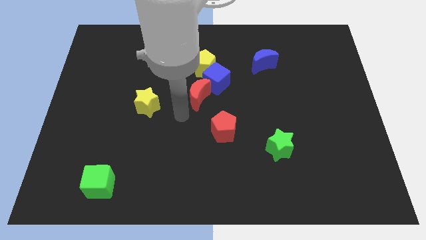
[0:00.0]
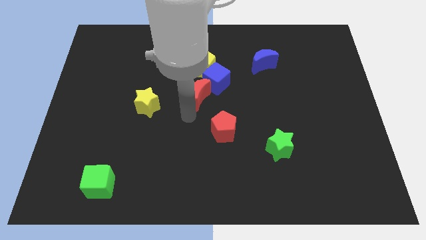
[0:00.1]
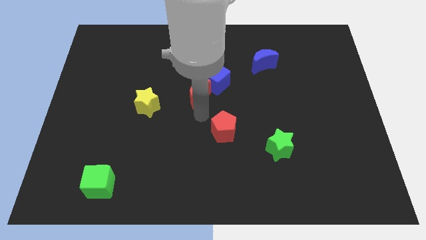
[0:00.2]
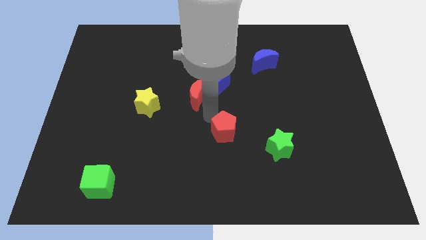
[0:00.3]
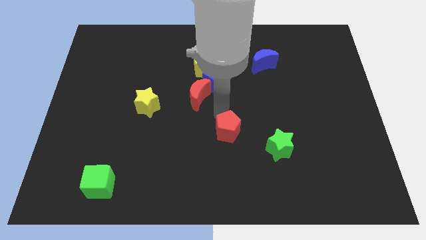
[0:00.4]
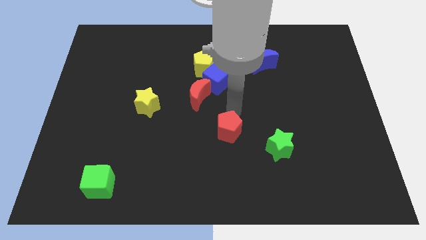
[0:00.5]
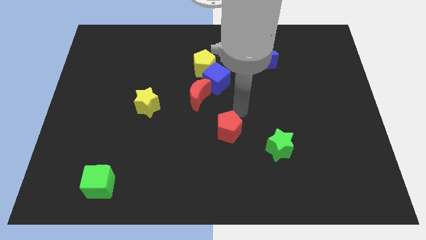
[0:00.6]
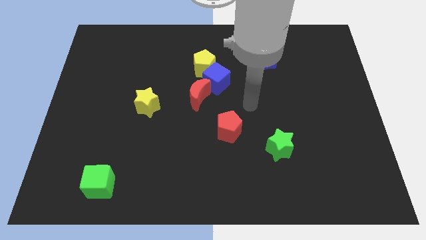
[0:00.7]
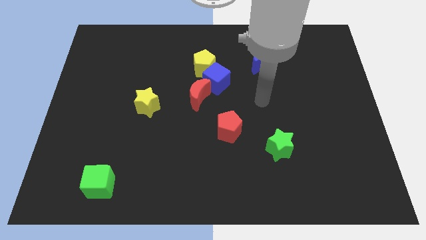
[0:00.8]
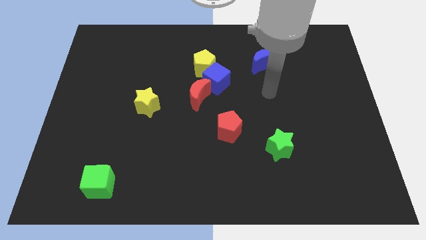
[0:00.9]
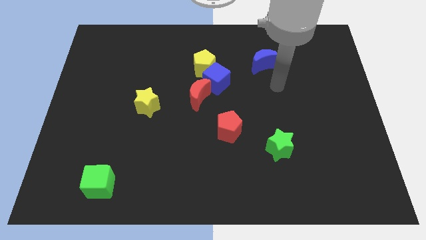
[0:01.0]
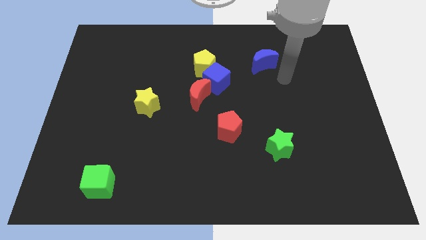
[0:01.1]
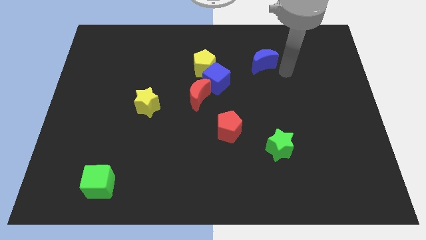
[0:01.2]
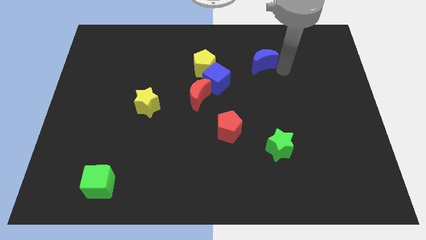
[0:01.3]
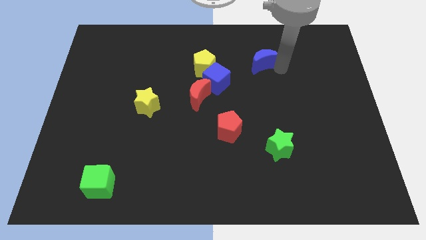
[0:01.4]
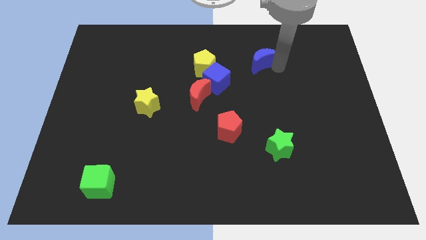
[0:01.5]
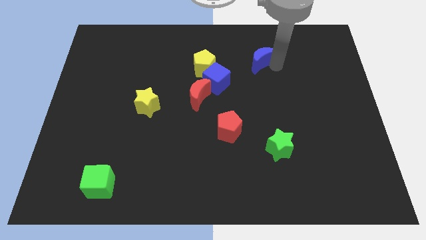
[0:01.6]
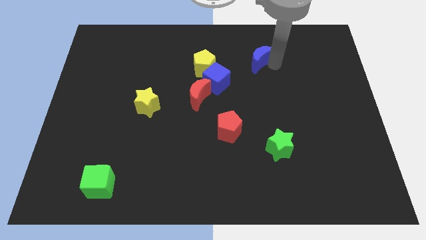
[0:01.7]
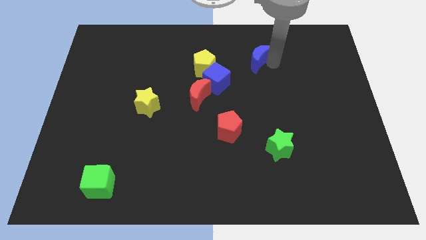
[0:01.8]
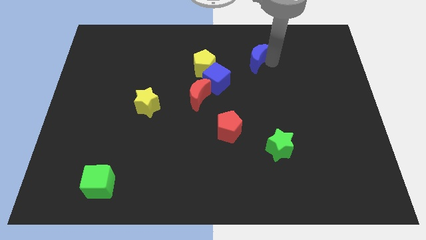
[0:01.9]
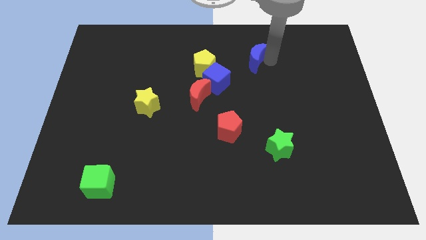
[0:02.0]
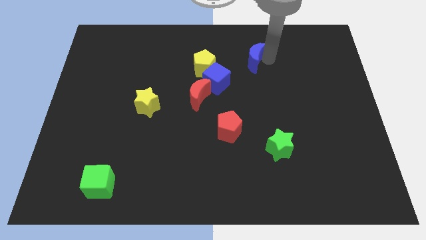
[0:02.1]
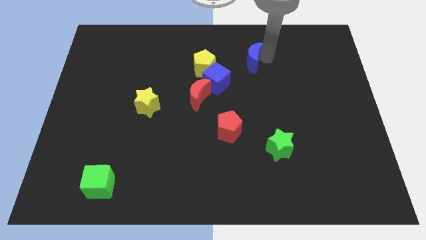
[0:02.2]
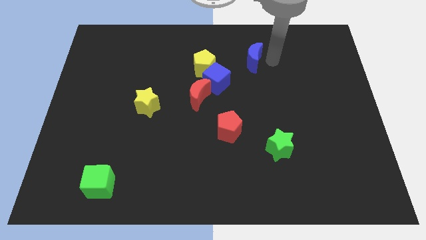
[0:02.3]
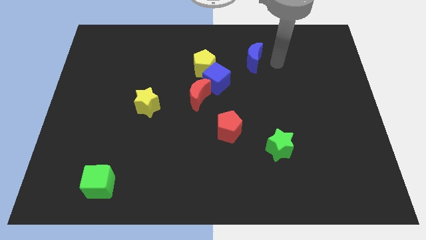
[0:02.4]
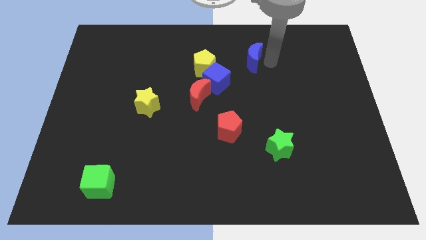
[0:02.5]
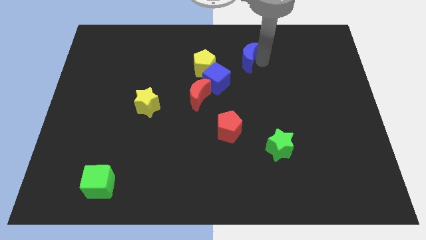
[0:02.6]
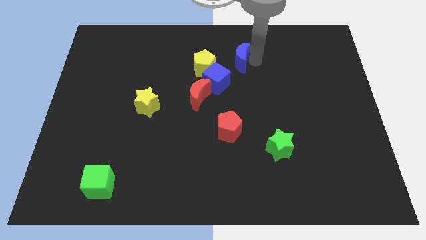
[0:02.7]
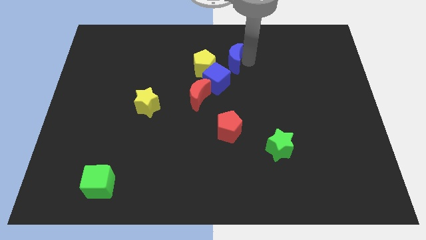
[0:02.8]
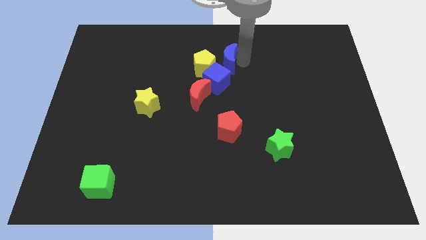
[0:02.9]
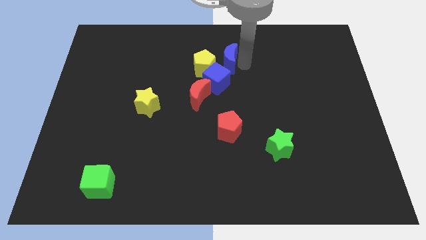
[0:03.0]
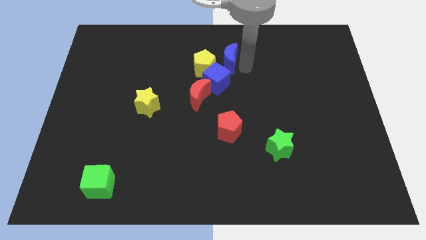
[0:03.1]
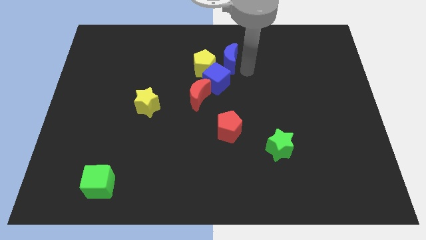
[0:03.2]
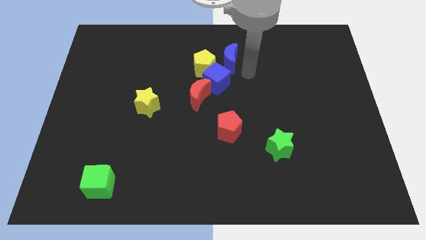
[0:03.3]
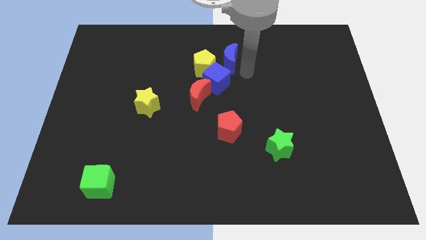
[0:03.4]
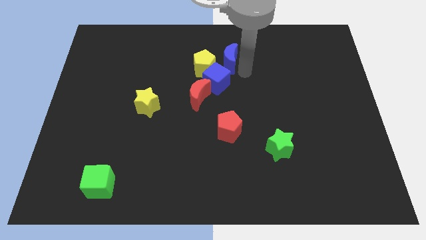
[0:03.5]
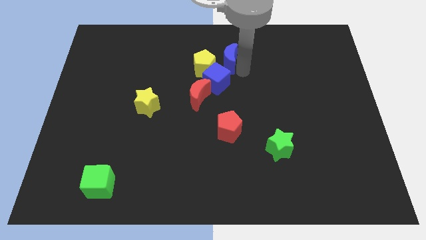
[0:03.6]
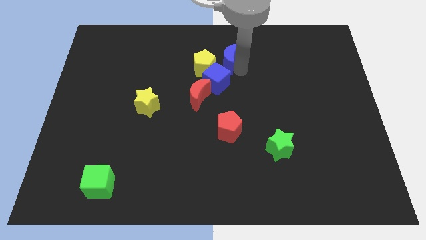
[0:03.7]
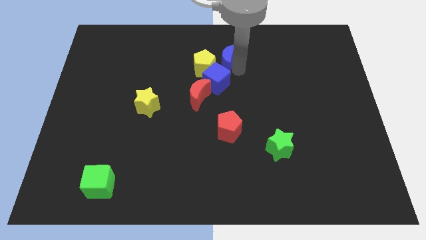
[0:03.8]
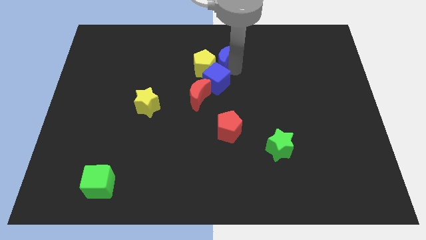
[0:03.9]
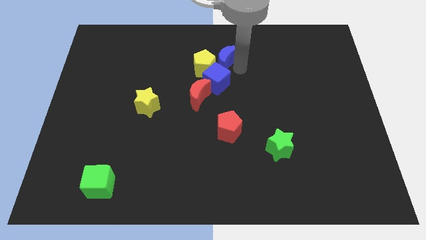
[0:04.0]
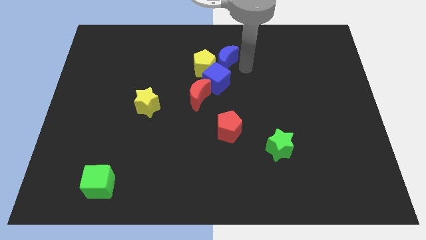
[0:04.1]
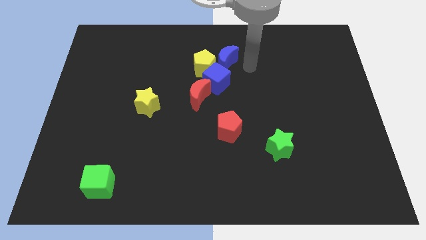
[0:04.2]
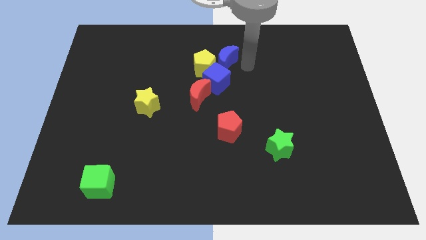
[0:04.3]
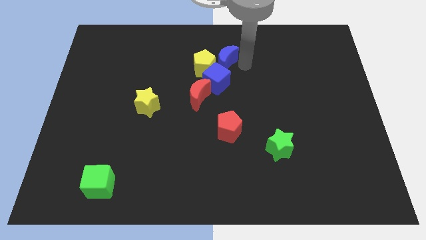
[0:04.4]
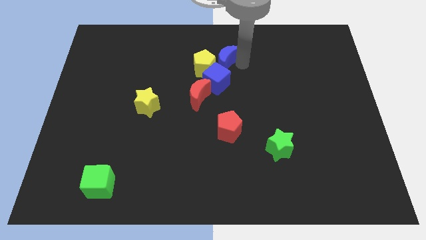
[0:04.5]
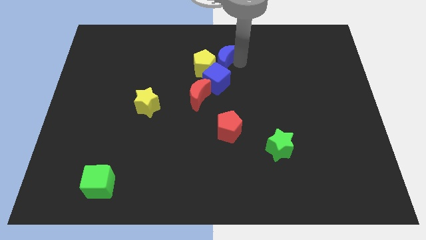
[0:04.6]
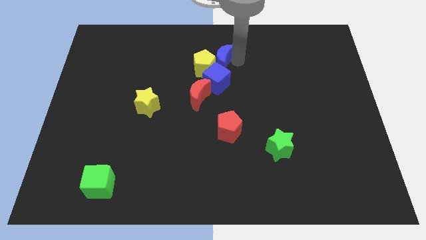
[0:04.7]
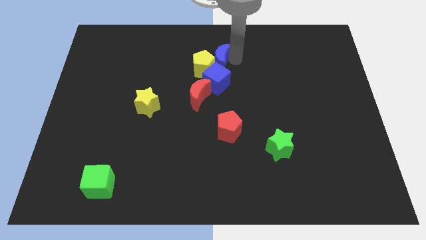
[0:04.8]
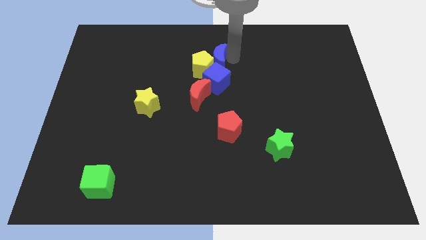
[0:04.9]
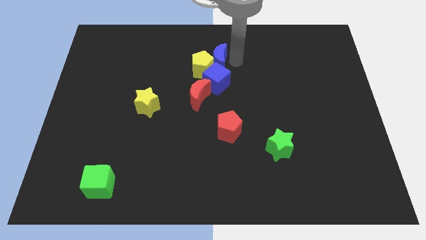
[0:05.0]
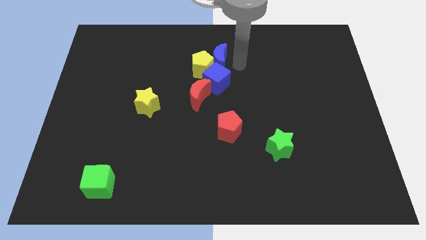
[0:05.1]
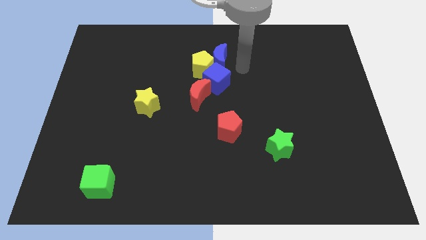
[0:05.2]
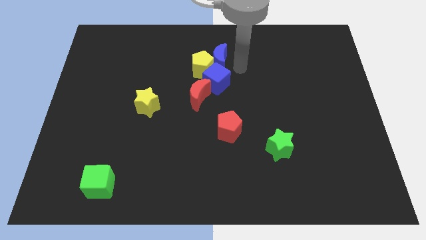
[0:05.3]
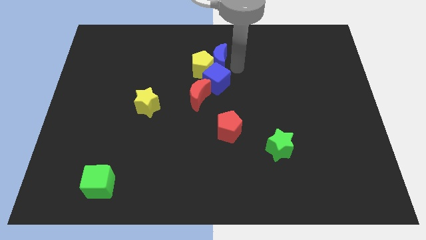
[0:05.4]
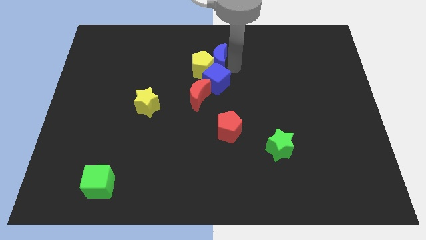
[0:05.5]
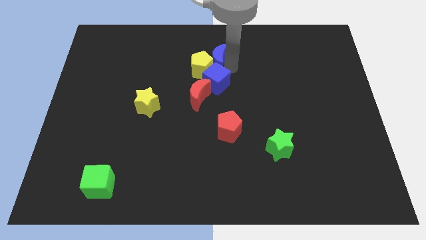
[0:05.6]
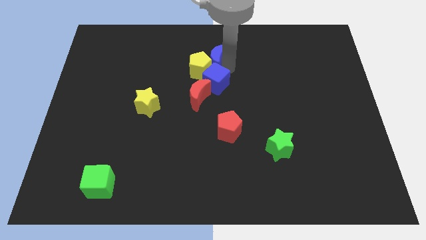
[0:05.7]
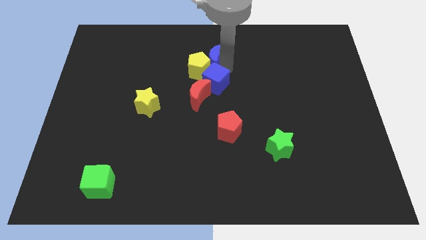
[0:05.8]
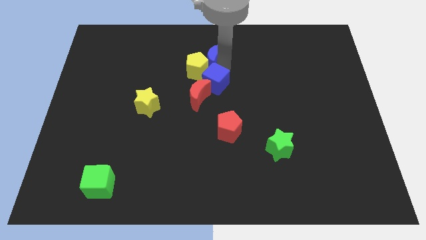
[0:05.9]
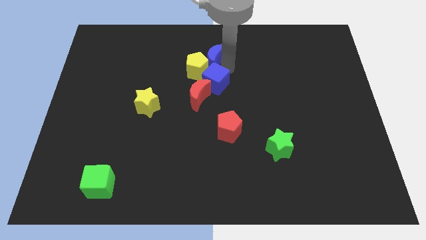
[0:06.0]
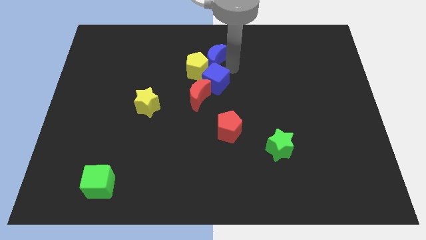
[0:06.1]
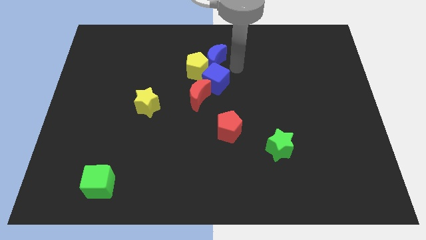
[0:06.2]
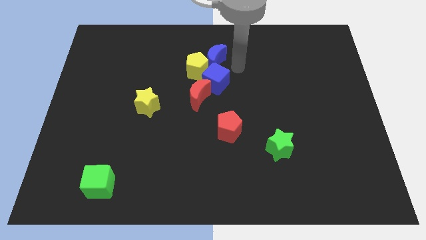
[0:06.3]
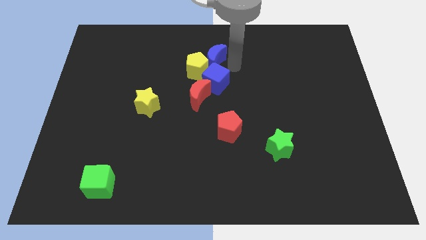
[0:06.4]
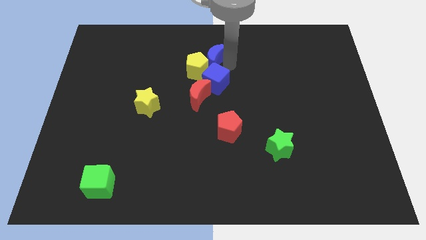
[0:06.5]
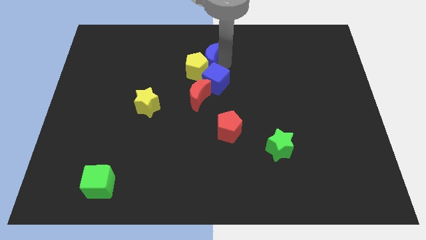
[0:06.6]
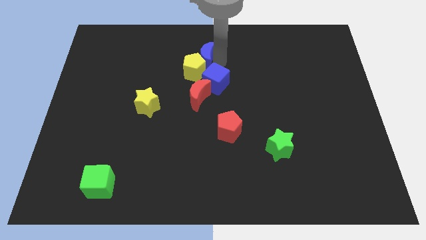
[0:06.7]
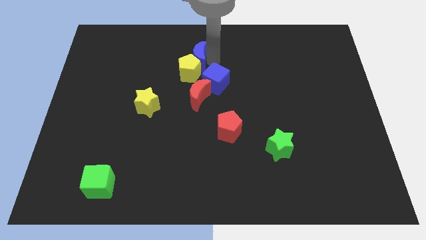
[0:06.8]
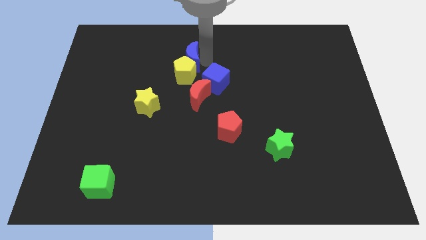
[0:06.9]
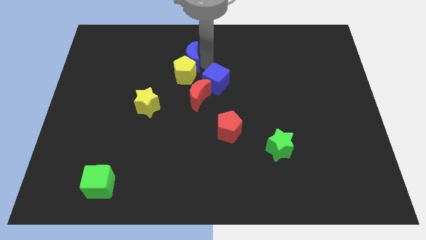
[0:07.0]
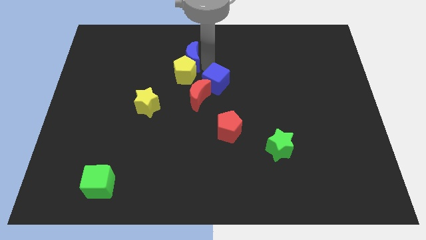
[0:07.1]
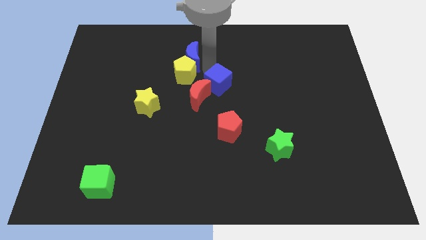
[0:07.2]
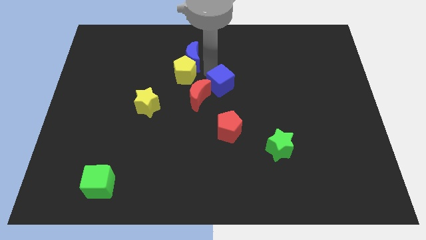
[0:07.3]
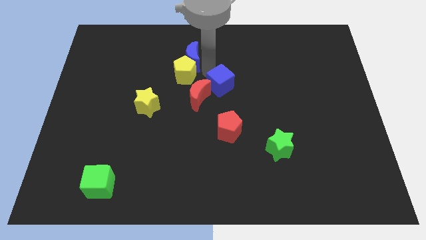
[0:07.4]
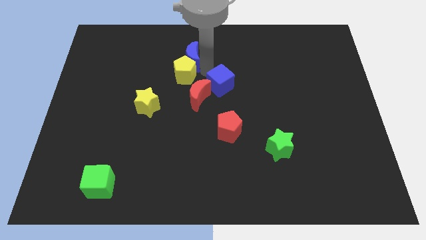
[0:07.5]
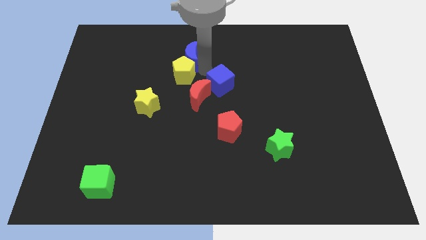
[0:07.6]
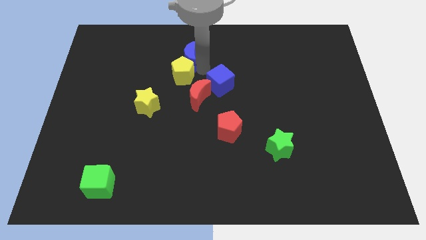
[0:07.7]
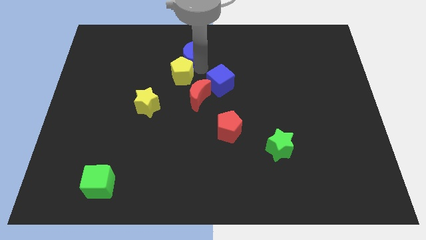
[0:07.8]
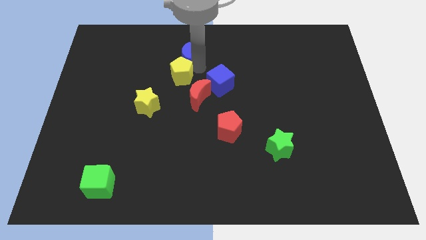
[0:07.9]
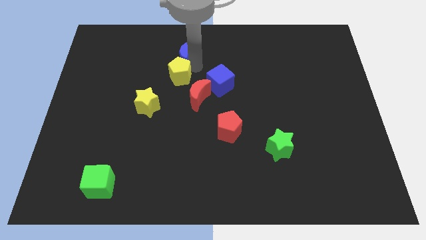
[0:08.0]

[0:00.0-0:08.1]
slide the blue moon left

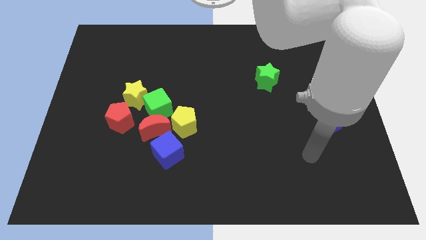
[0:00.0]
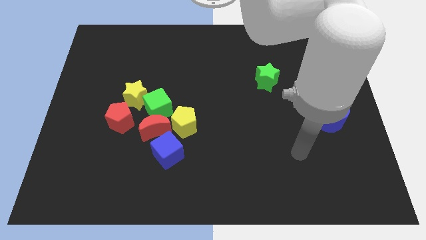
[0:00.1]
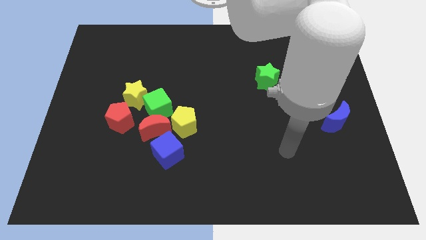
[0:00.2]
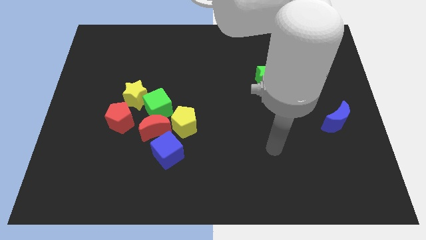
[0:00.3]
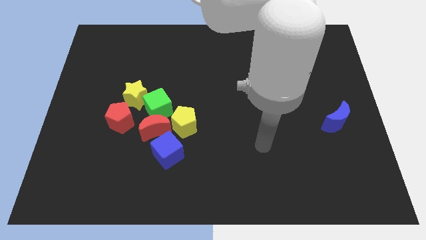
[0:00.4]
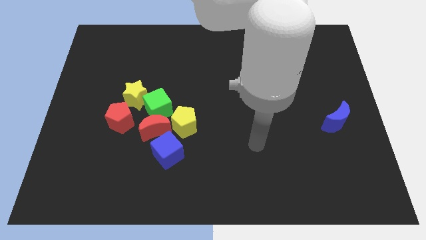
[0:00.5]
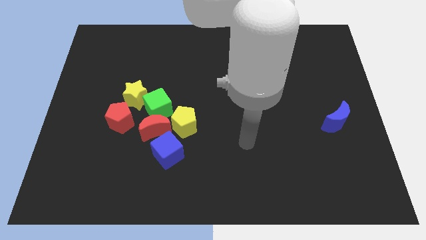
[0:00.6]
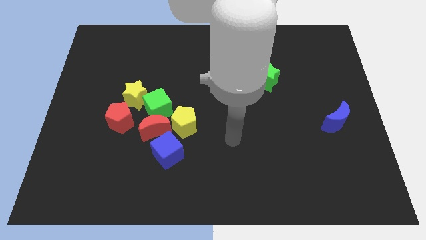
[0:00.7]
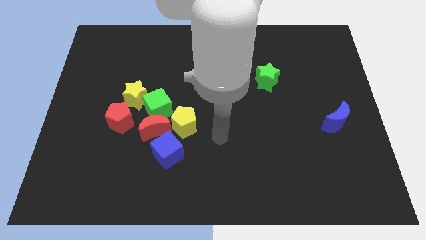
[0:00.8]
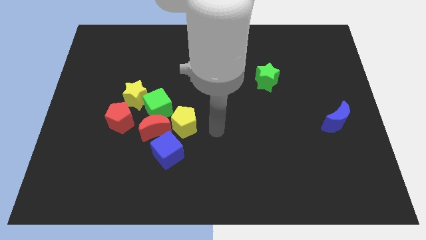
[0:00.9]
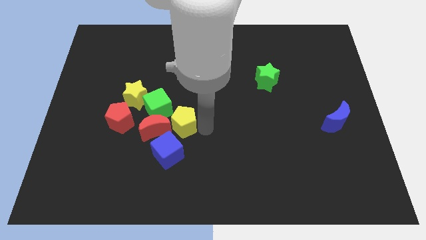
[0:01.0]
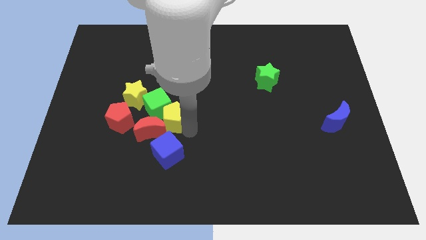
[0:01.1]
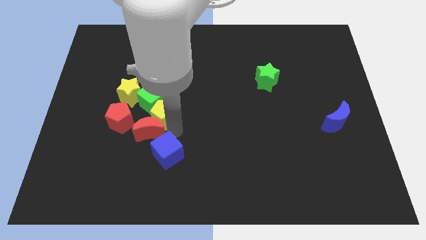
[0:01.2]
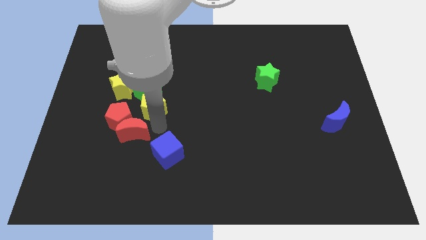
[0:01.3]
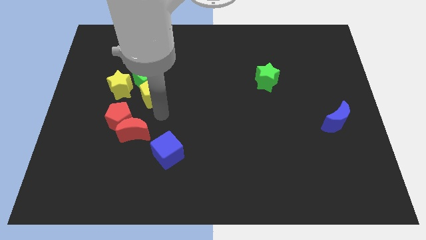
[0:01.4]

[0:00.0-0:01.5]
move the green cube somewhat upwards and to the left diagonally
